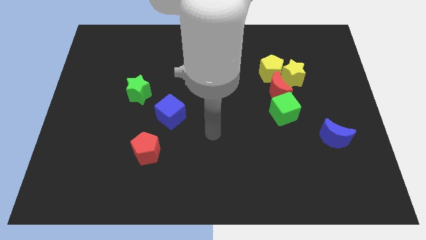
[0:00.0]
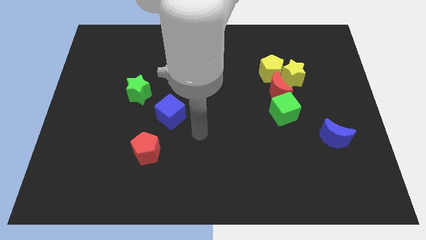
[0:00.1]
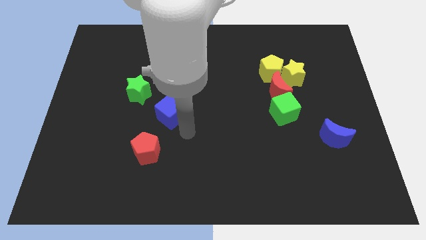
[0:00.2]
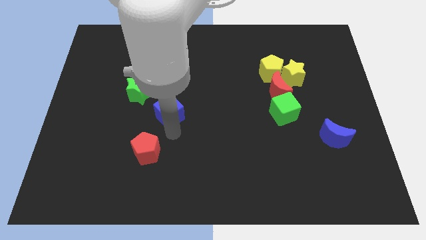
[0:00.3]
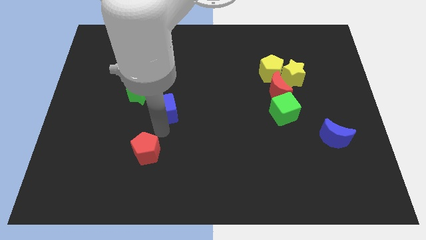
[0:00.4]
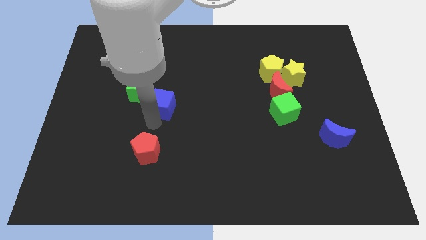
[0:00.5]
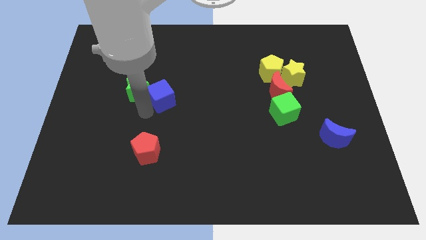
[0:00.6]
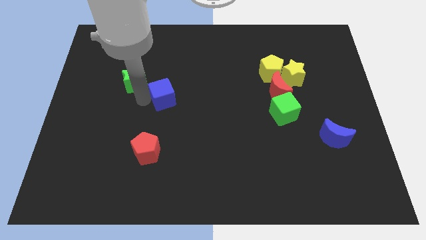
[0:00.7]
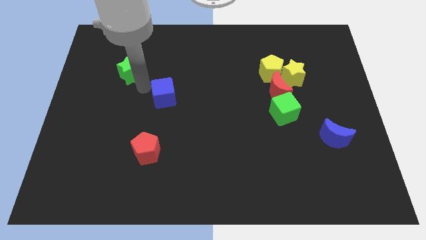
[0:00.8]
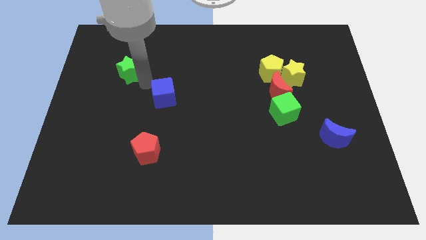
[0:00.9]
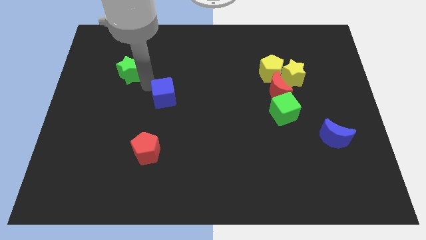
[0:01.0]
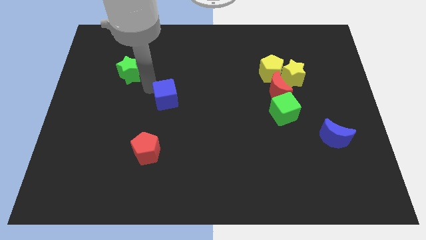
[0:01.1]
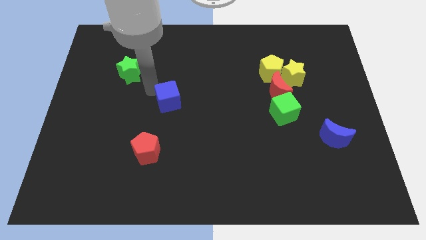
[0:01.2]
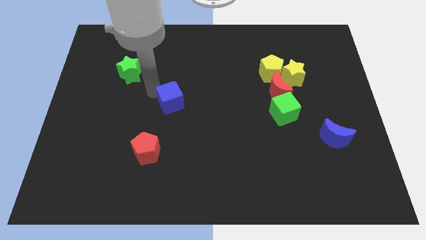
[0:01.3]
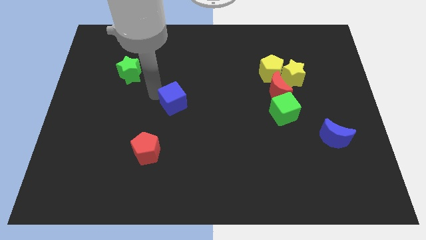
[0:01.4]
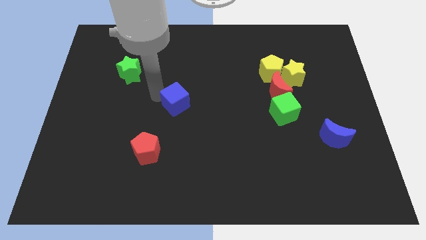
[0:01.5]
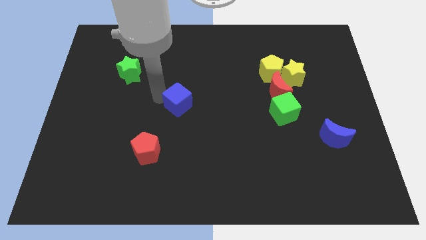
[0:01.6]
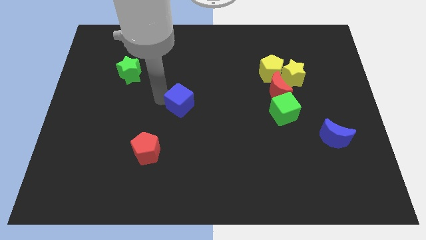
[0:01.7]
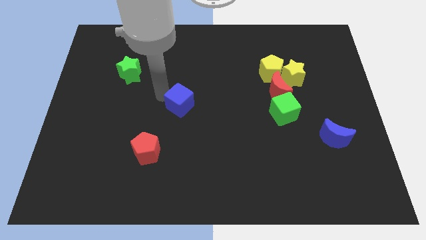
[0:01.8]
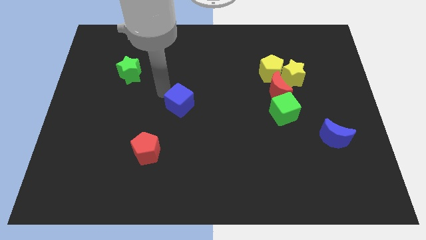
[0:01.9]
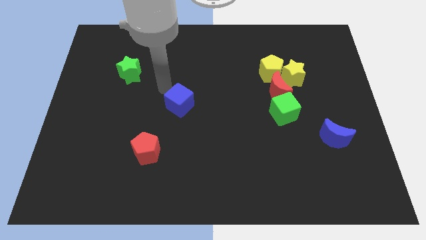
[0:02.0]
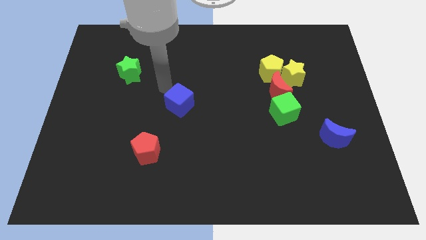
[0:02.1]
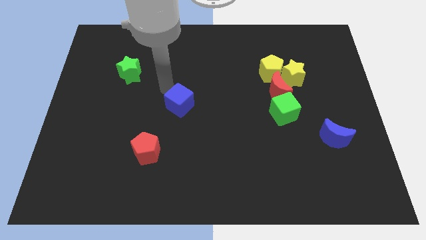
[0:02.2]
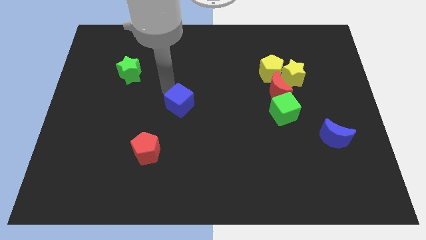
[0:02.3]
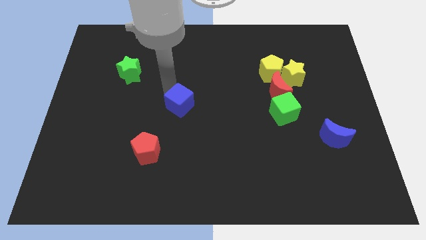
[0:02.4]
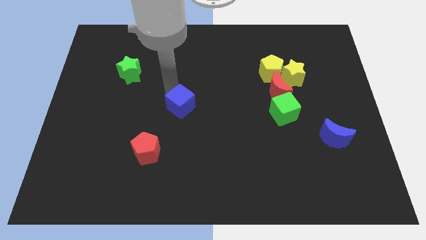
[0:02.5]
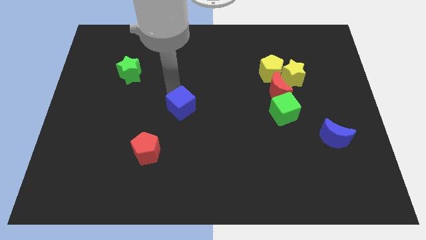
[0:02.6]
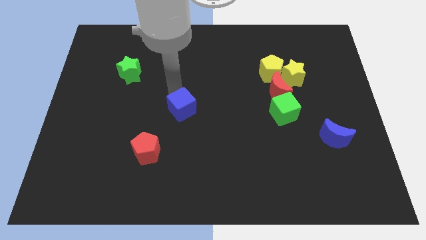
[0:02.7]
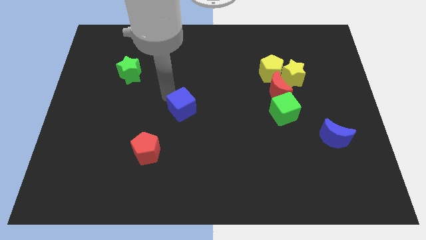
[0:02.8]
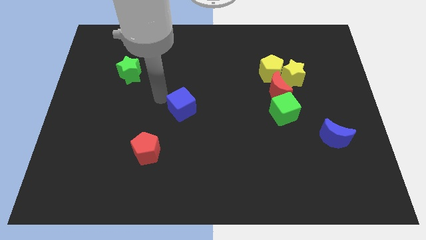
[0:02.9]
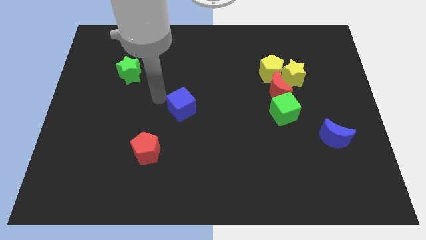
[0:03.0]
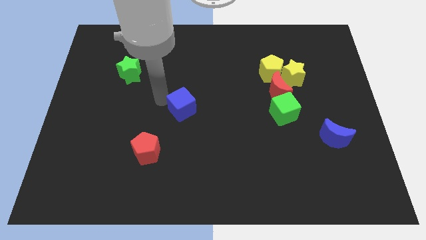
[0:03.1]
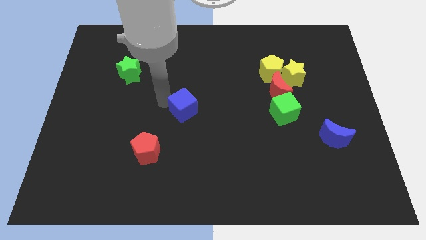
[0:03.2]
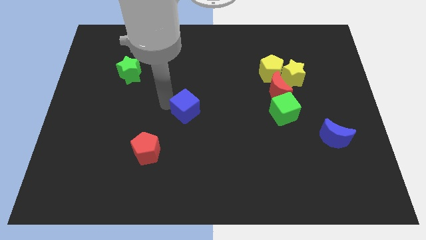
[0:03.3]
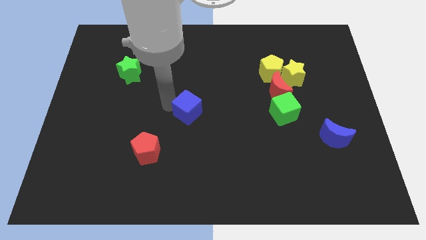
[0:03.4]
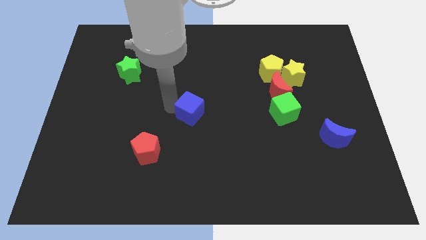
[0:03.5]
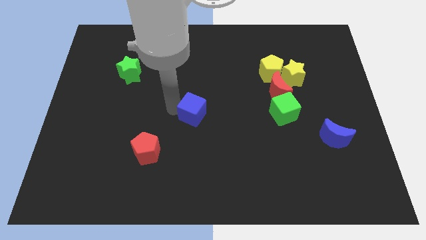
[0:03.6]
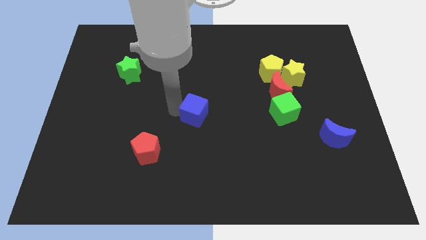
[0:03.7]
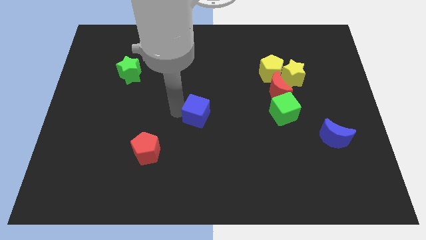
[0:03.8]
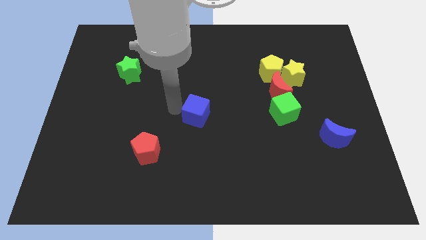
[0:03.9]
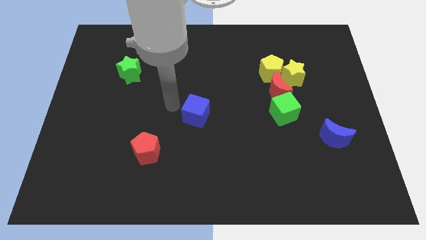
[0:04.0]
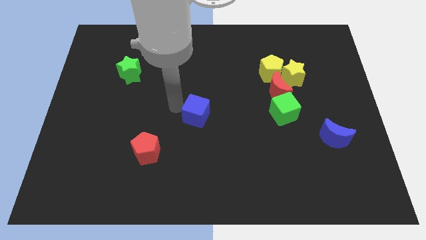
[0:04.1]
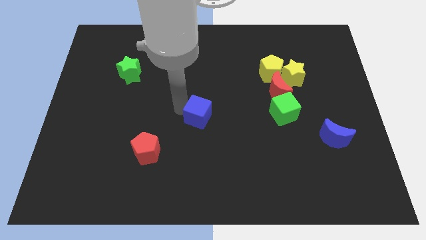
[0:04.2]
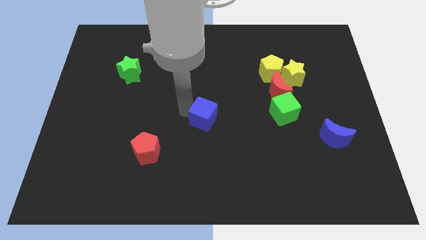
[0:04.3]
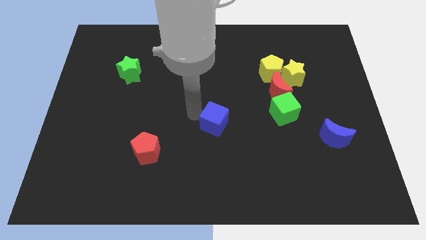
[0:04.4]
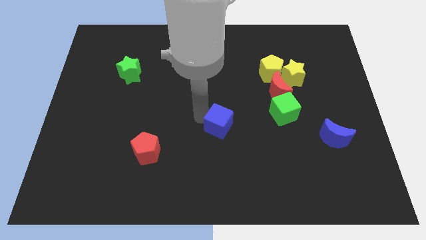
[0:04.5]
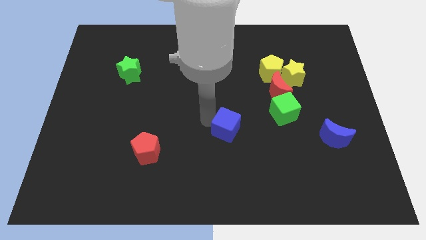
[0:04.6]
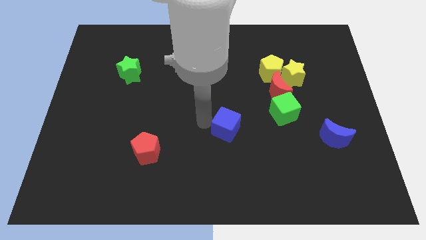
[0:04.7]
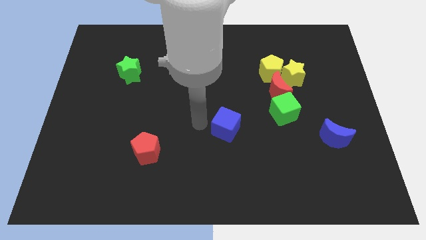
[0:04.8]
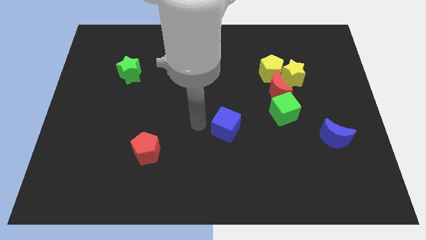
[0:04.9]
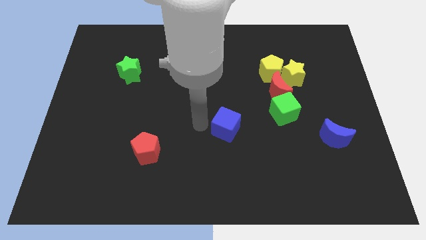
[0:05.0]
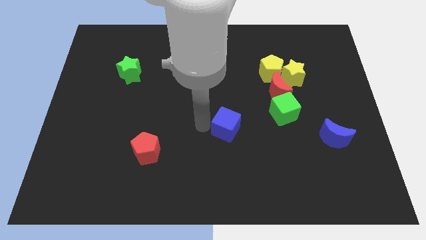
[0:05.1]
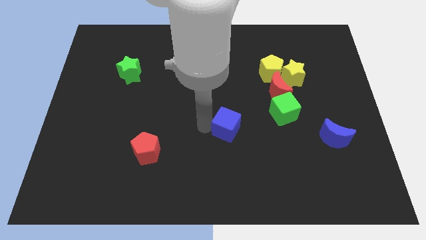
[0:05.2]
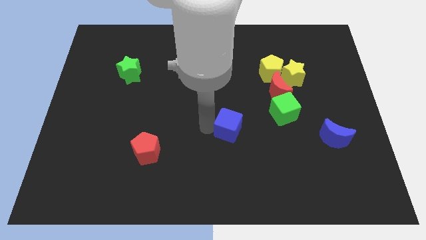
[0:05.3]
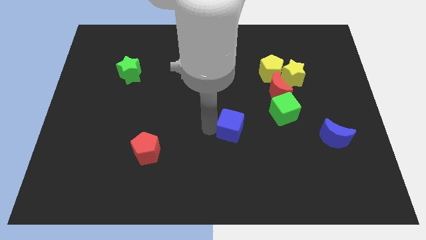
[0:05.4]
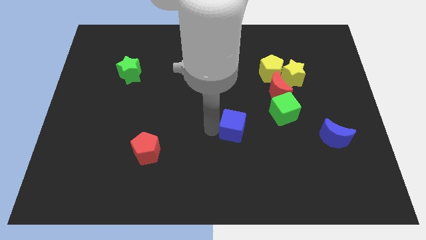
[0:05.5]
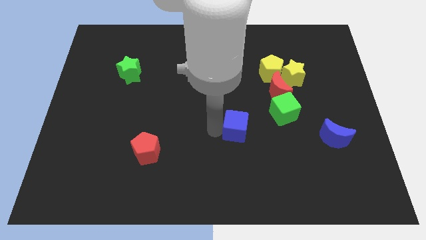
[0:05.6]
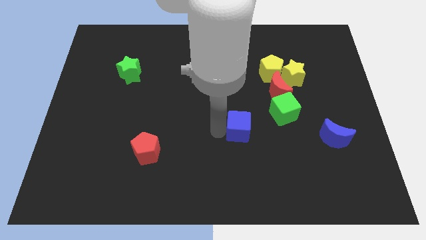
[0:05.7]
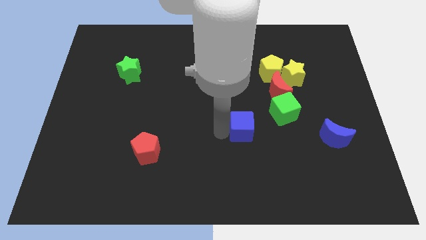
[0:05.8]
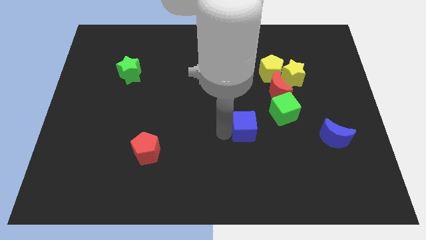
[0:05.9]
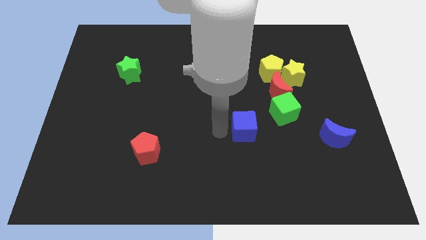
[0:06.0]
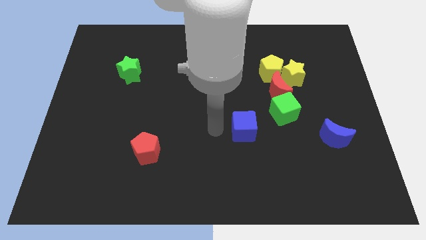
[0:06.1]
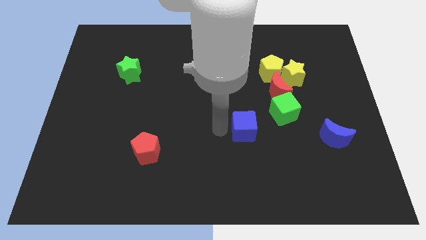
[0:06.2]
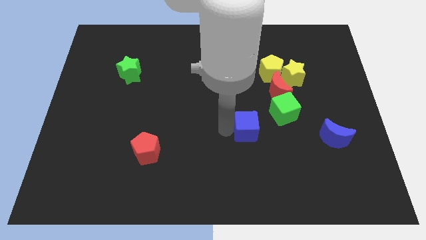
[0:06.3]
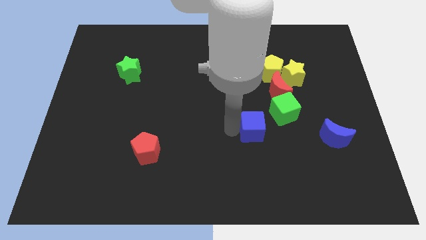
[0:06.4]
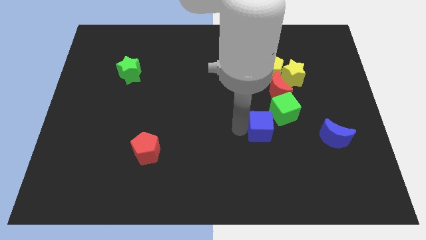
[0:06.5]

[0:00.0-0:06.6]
slide the blue cube right

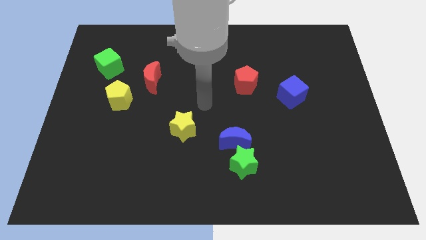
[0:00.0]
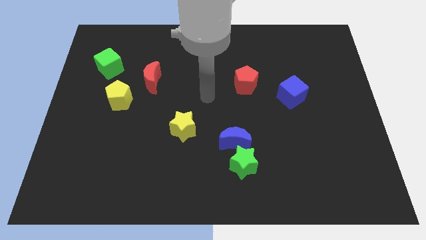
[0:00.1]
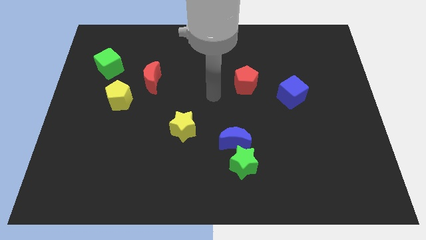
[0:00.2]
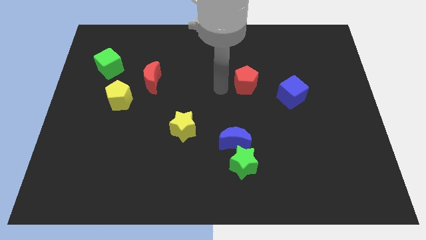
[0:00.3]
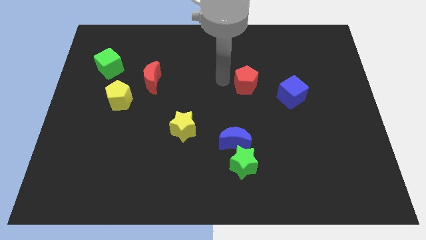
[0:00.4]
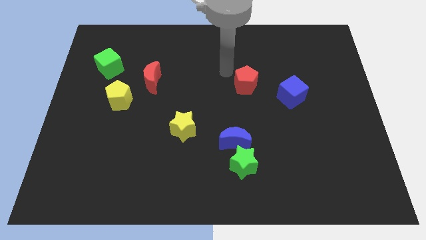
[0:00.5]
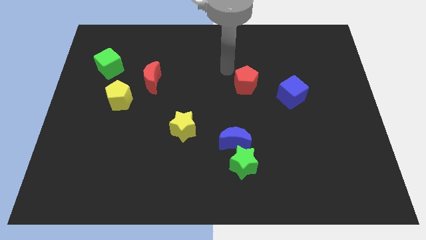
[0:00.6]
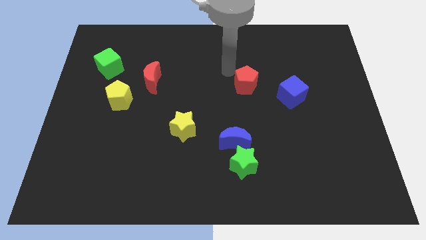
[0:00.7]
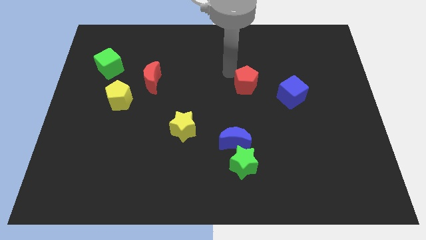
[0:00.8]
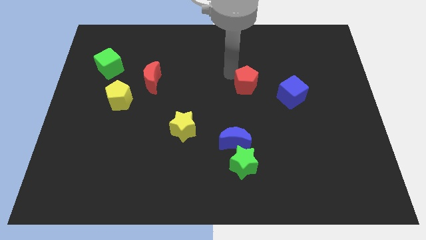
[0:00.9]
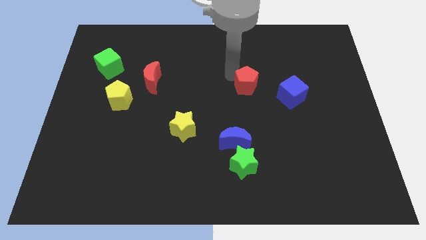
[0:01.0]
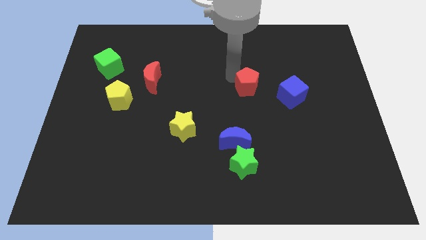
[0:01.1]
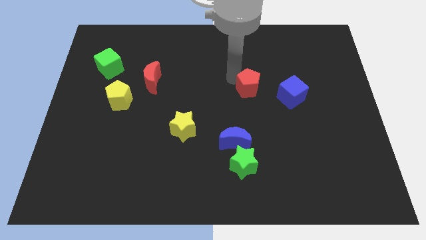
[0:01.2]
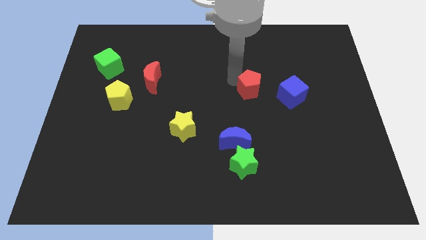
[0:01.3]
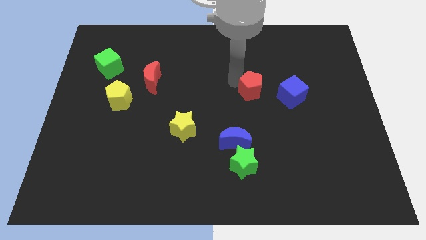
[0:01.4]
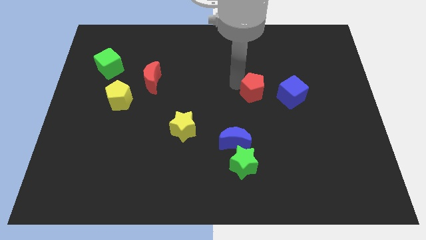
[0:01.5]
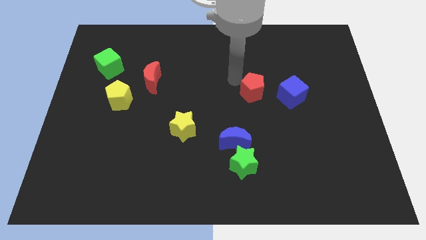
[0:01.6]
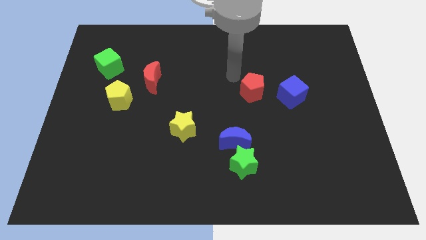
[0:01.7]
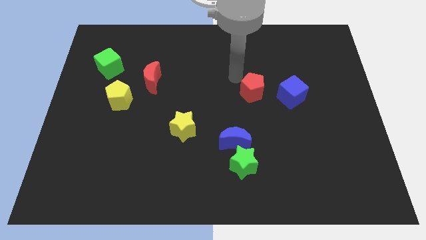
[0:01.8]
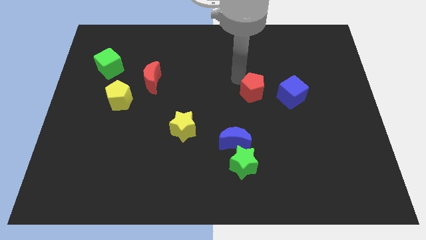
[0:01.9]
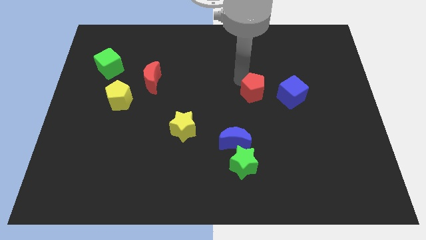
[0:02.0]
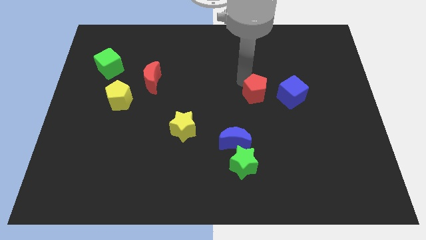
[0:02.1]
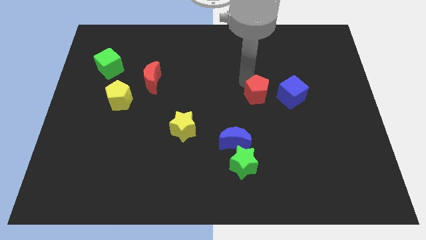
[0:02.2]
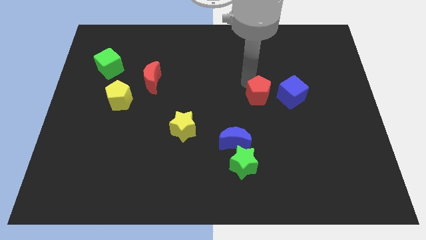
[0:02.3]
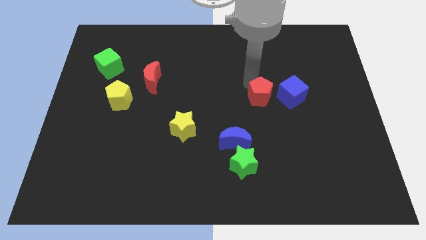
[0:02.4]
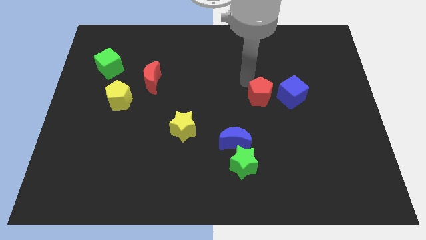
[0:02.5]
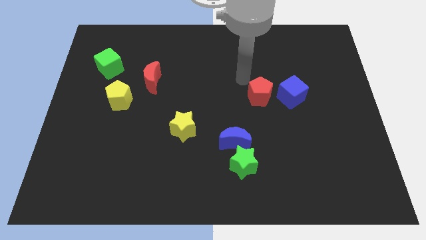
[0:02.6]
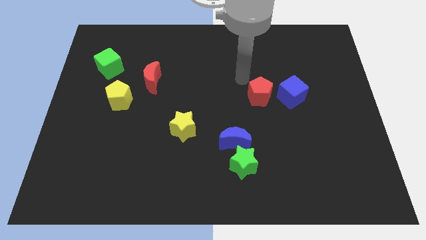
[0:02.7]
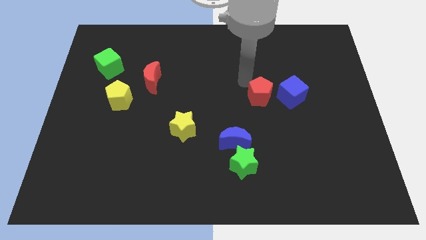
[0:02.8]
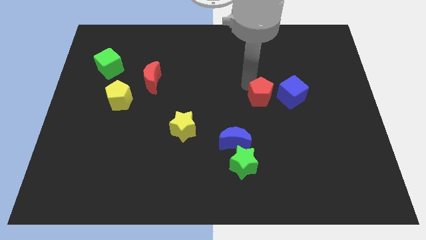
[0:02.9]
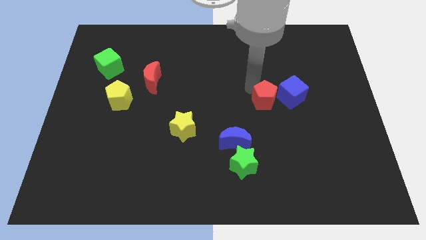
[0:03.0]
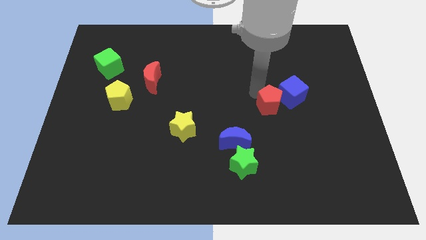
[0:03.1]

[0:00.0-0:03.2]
slightly move the red pentagon downwards and then to the right
